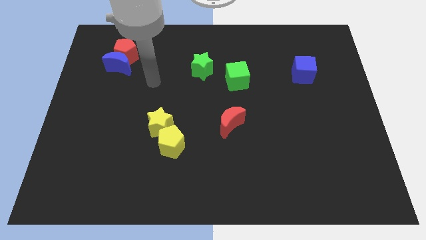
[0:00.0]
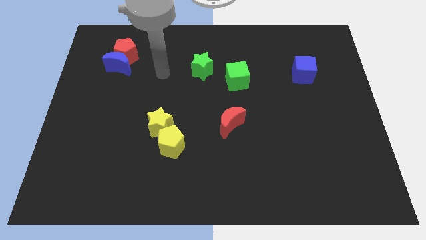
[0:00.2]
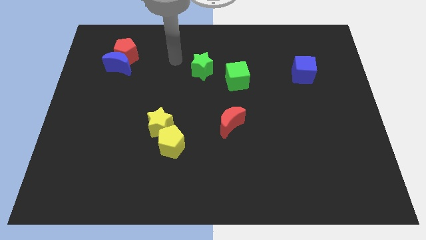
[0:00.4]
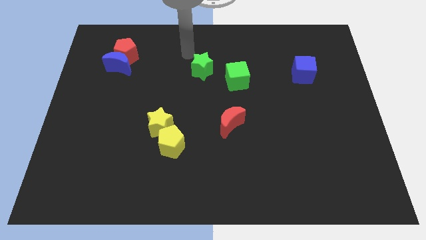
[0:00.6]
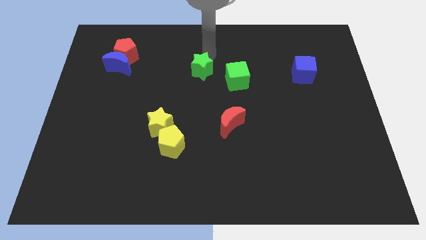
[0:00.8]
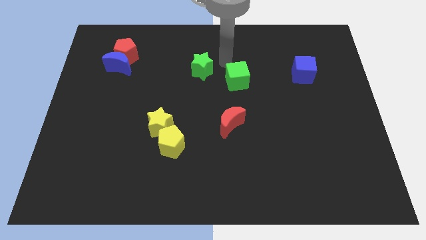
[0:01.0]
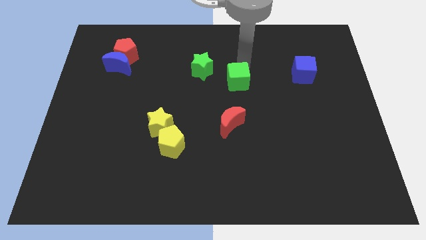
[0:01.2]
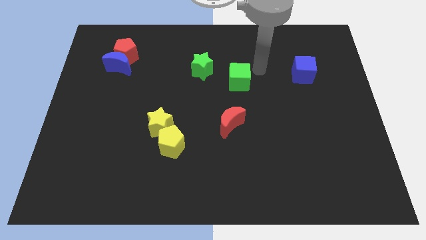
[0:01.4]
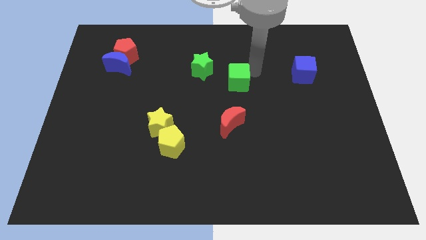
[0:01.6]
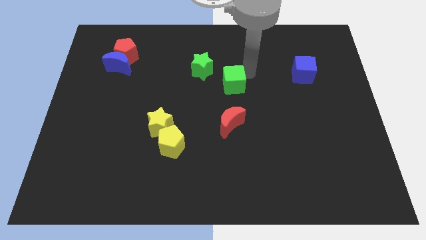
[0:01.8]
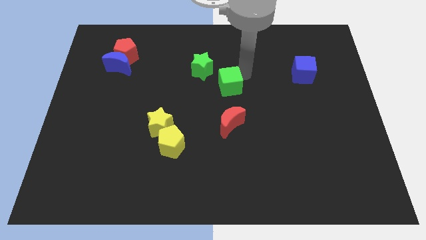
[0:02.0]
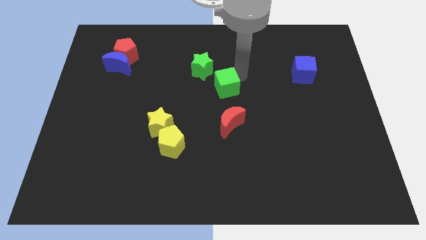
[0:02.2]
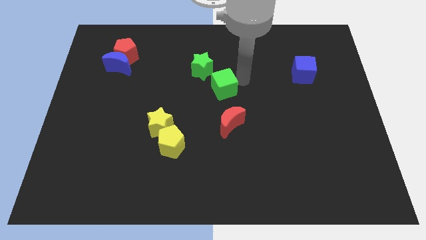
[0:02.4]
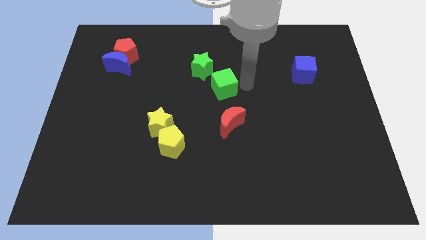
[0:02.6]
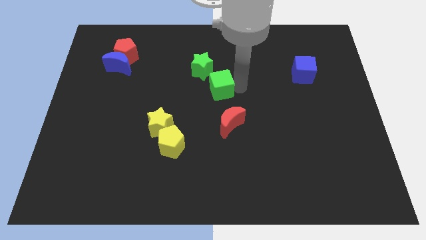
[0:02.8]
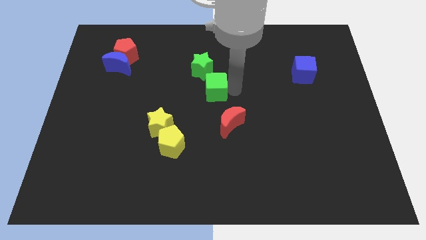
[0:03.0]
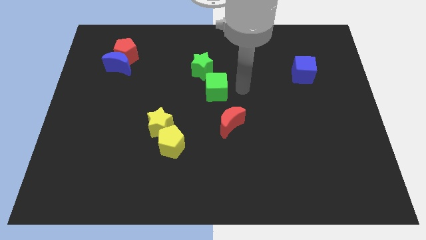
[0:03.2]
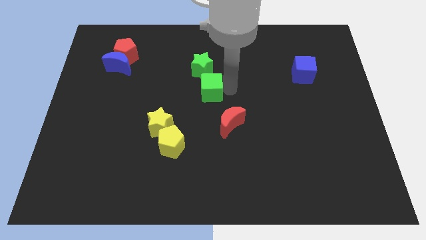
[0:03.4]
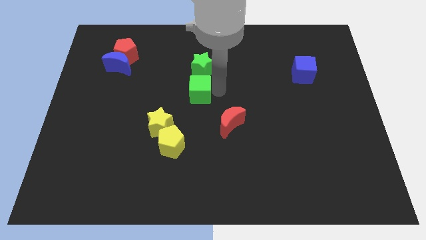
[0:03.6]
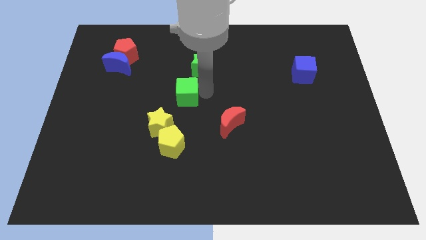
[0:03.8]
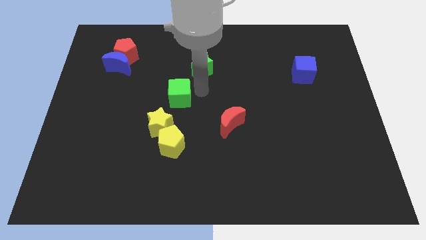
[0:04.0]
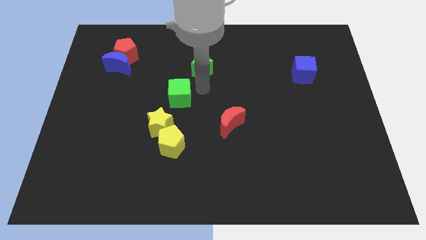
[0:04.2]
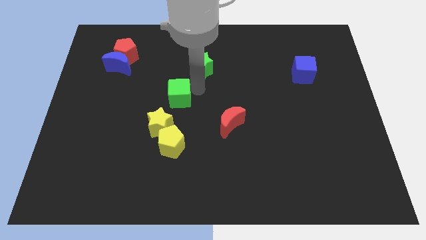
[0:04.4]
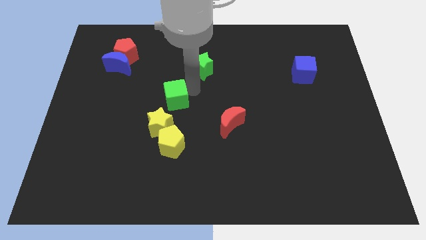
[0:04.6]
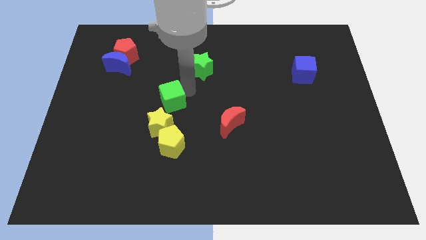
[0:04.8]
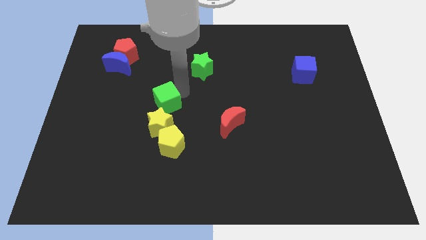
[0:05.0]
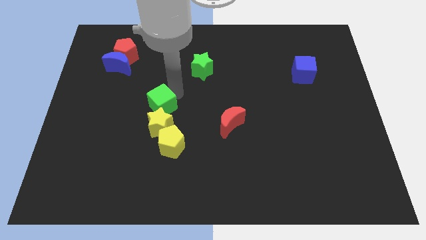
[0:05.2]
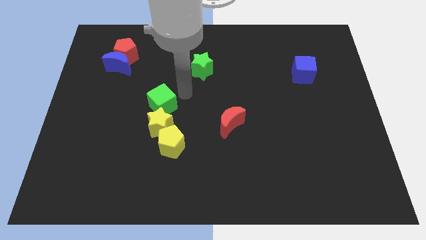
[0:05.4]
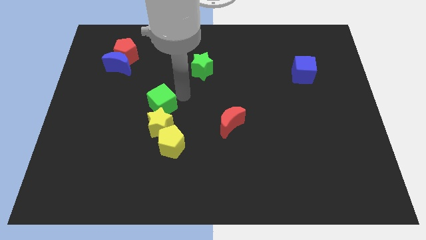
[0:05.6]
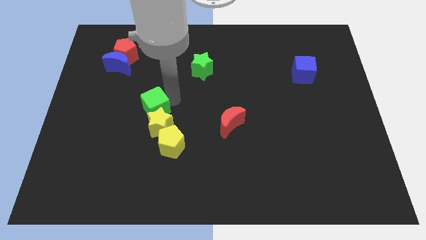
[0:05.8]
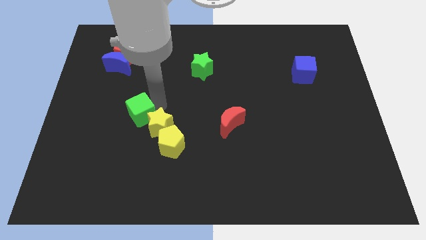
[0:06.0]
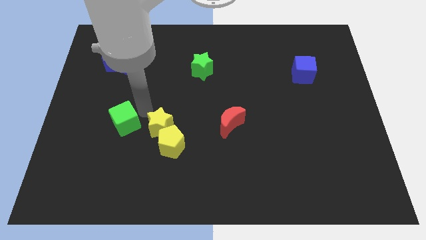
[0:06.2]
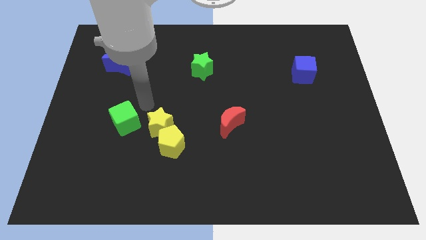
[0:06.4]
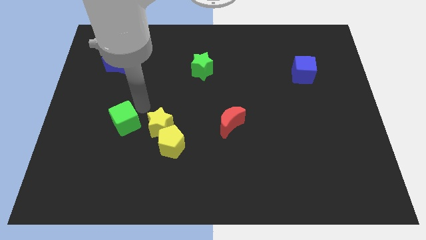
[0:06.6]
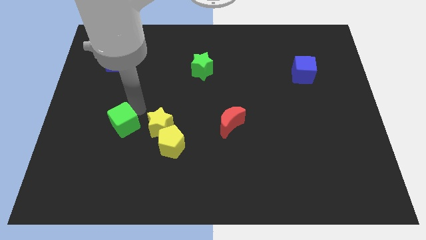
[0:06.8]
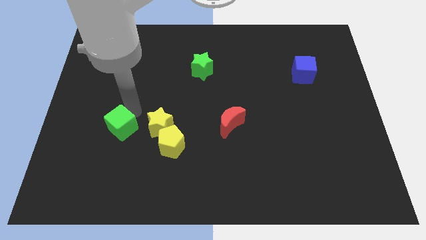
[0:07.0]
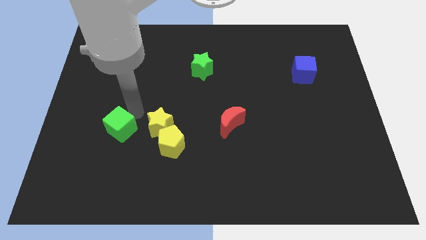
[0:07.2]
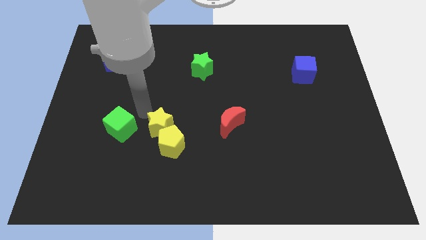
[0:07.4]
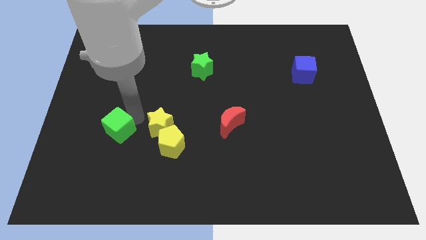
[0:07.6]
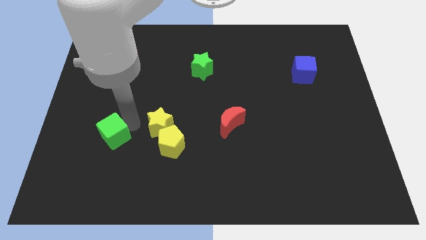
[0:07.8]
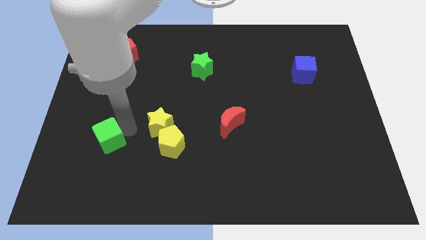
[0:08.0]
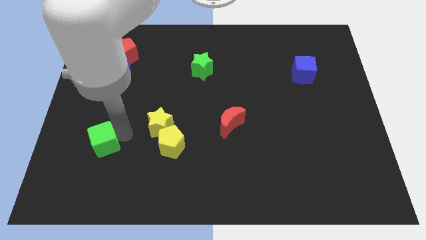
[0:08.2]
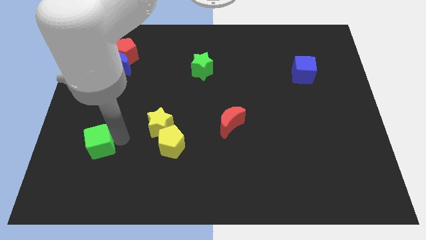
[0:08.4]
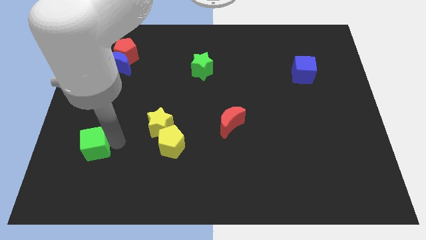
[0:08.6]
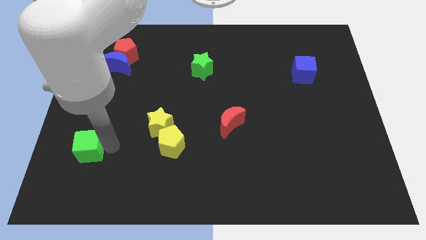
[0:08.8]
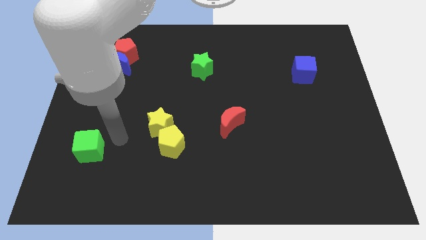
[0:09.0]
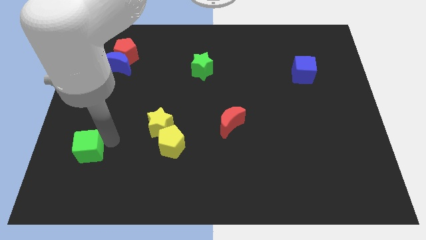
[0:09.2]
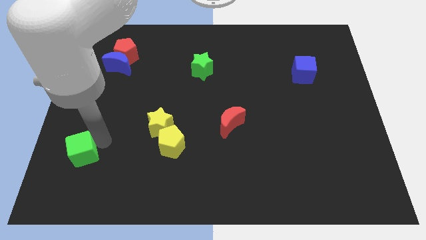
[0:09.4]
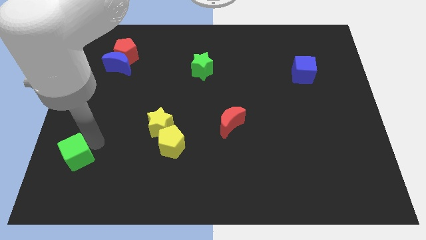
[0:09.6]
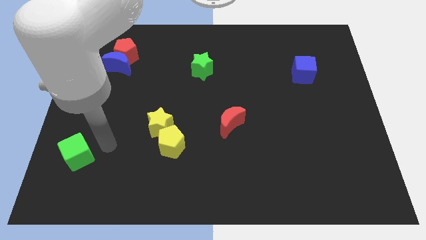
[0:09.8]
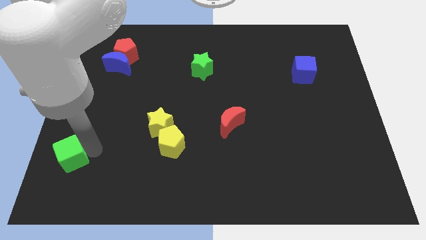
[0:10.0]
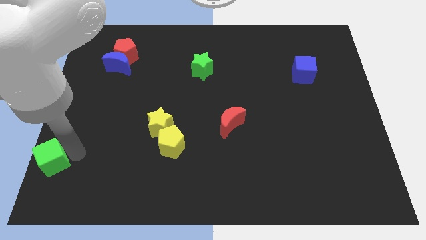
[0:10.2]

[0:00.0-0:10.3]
put the green cube to the bottom left of the board

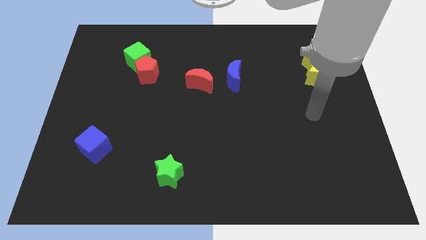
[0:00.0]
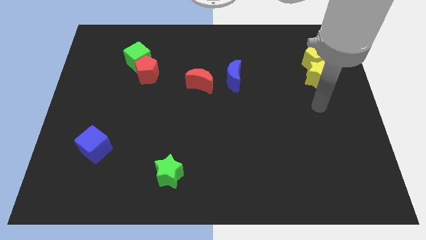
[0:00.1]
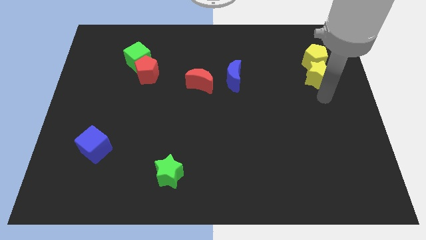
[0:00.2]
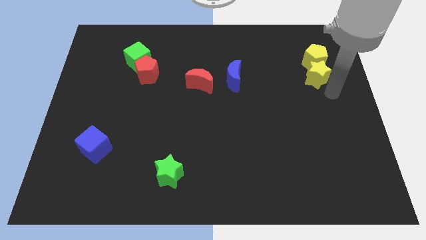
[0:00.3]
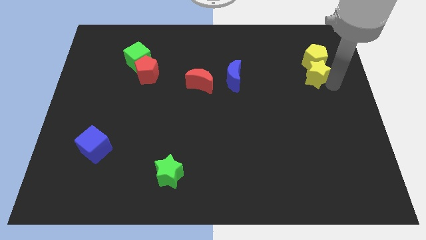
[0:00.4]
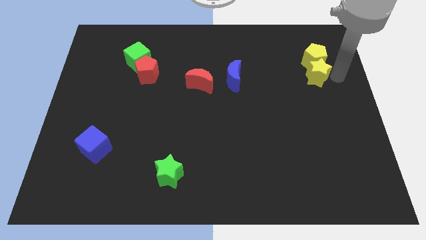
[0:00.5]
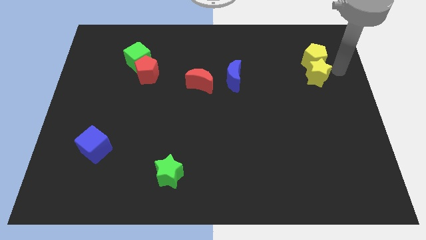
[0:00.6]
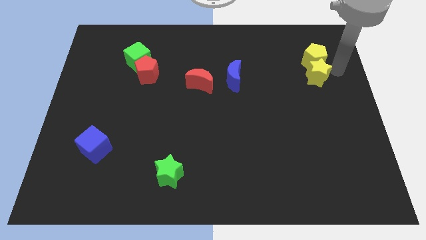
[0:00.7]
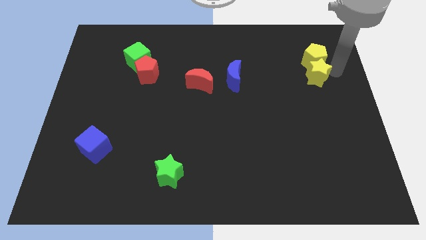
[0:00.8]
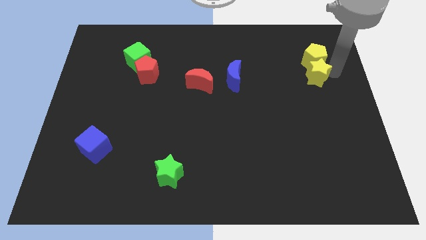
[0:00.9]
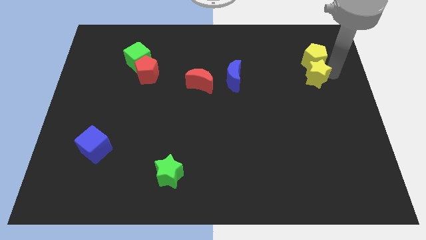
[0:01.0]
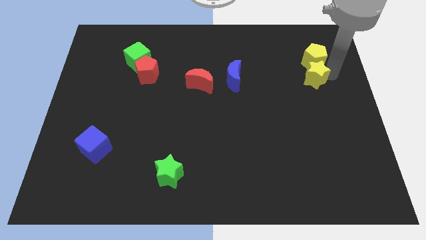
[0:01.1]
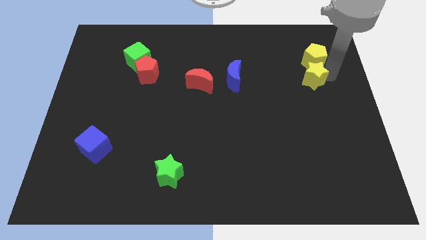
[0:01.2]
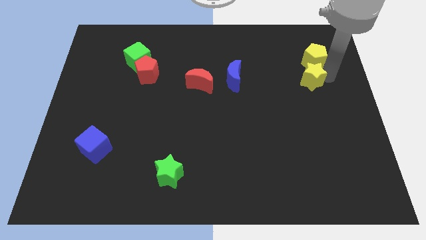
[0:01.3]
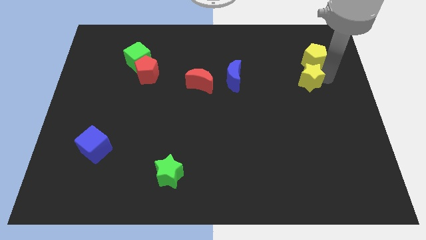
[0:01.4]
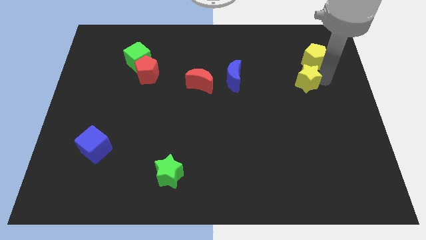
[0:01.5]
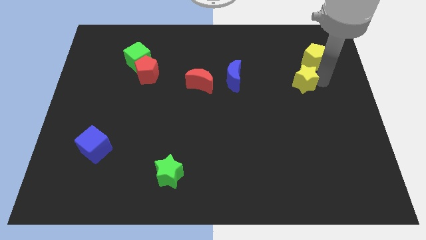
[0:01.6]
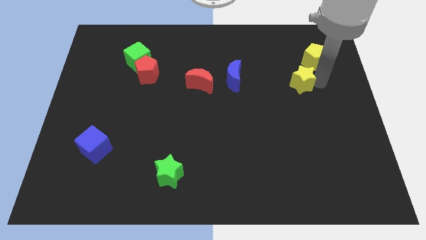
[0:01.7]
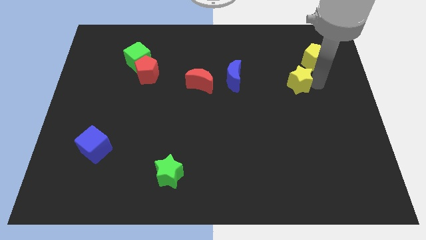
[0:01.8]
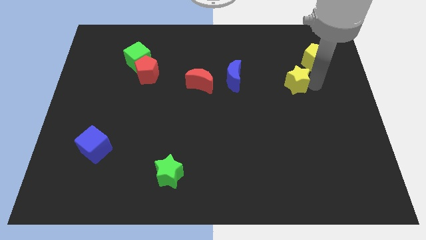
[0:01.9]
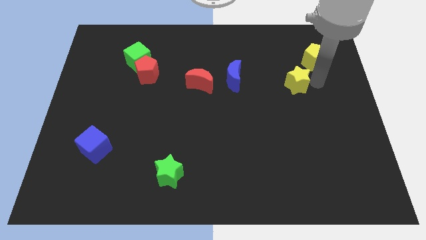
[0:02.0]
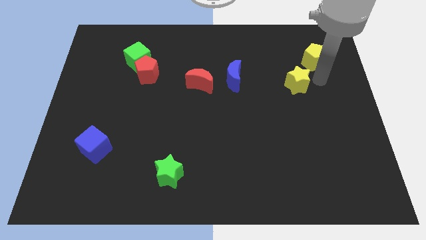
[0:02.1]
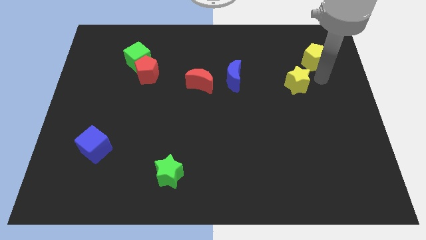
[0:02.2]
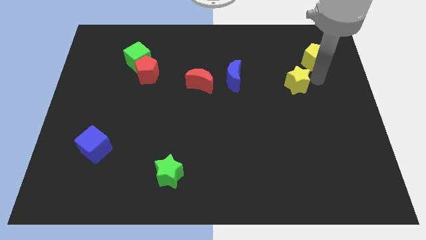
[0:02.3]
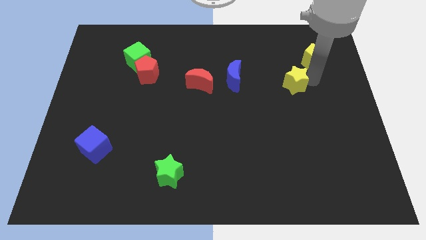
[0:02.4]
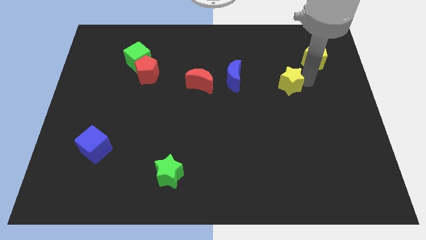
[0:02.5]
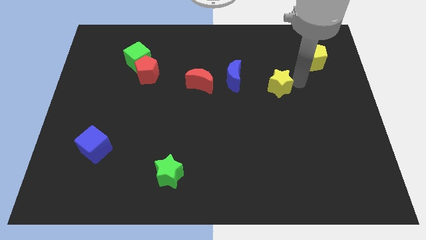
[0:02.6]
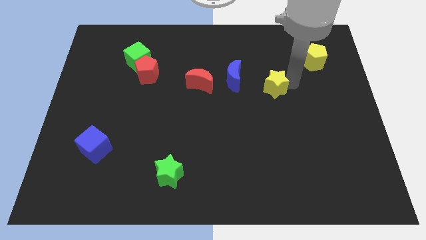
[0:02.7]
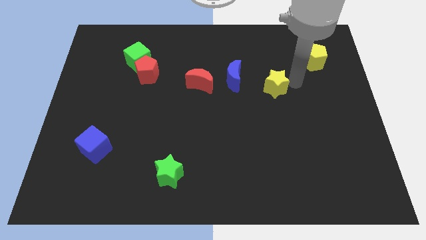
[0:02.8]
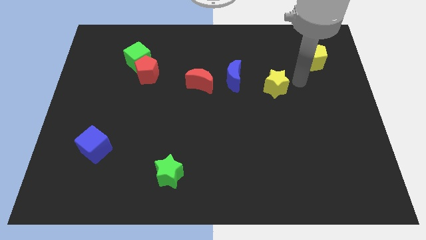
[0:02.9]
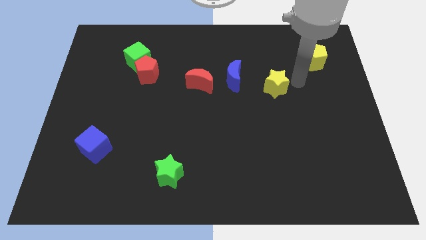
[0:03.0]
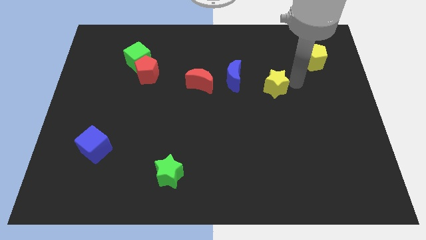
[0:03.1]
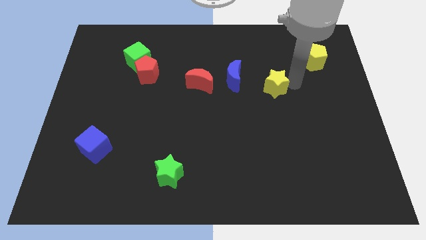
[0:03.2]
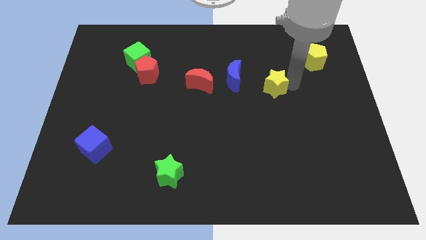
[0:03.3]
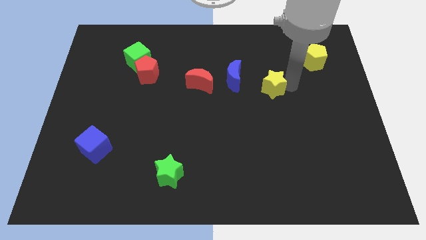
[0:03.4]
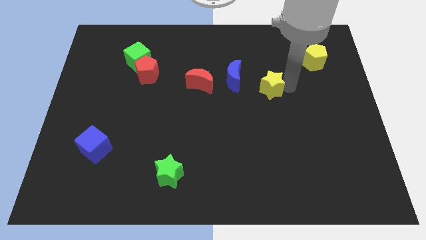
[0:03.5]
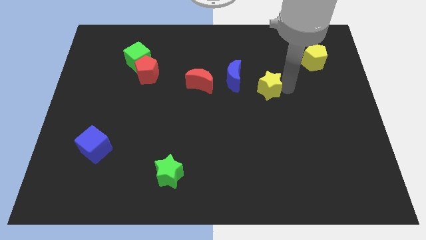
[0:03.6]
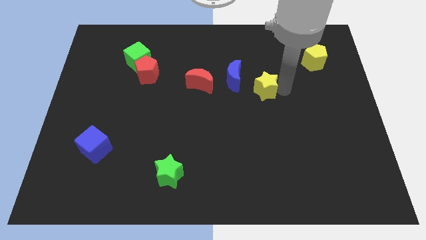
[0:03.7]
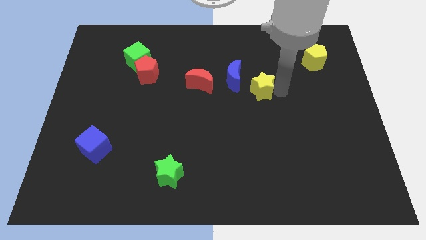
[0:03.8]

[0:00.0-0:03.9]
slide the yellow star to the middle
